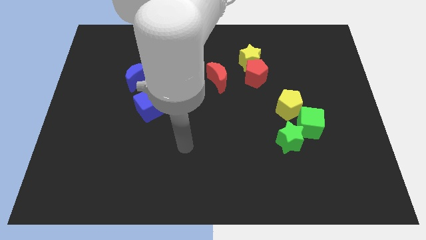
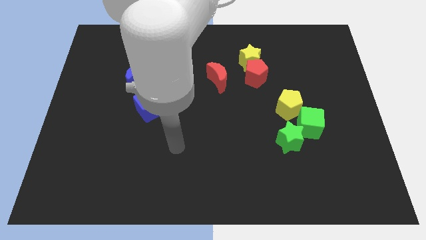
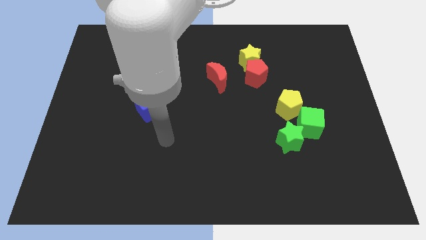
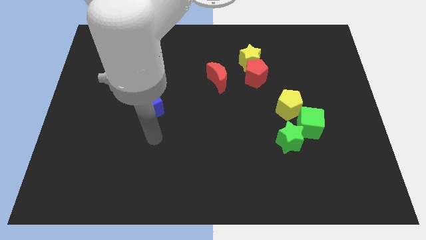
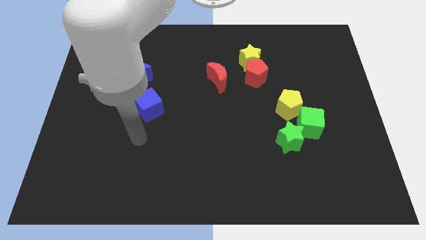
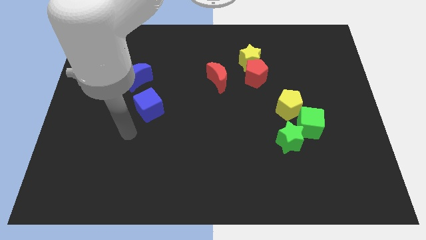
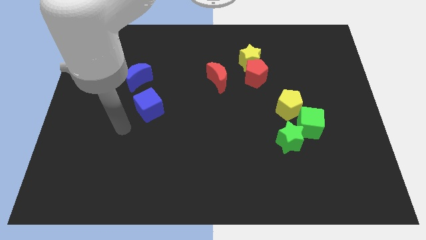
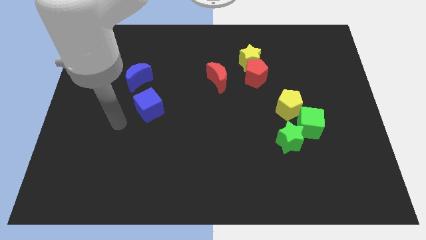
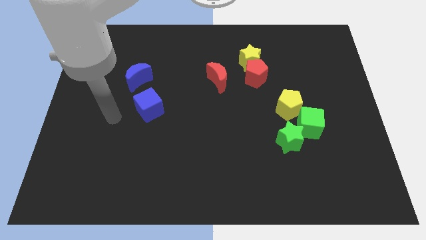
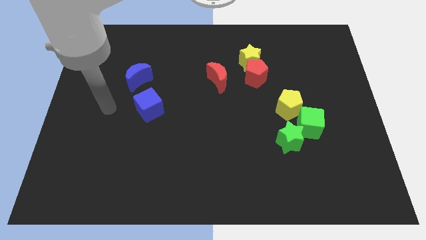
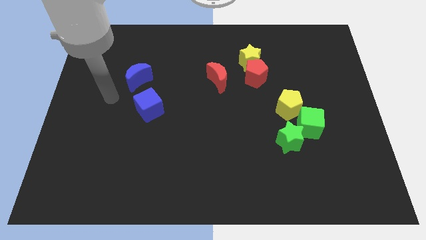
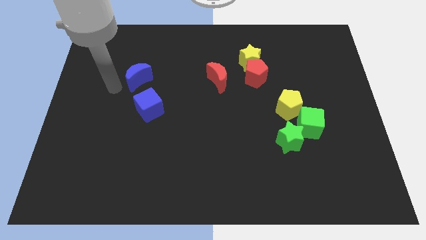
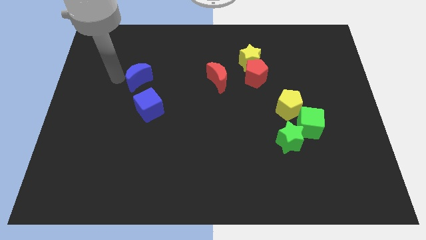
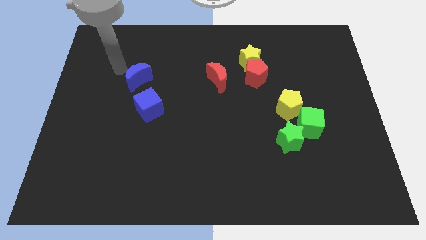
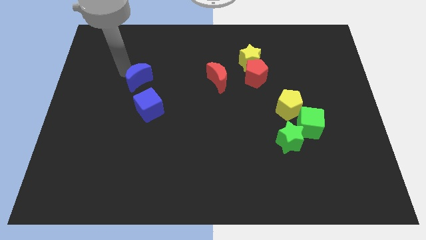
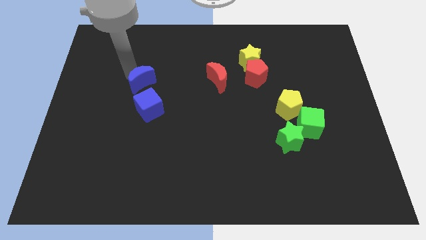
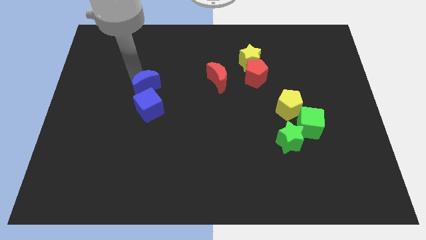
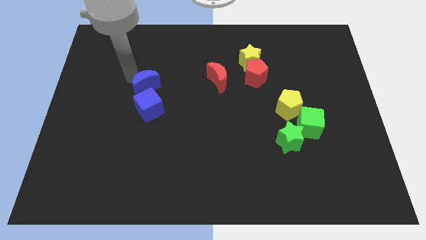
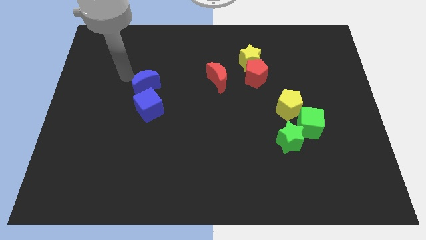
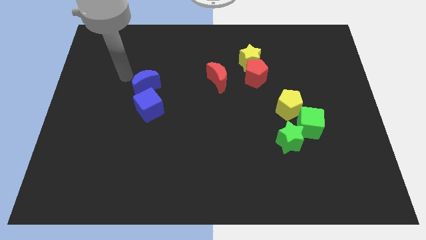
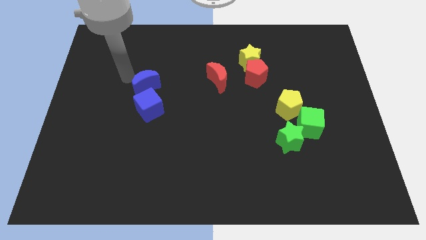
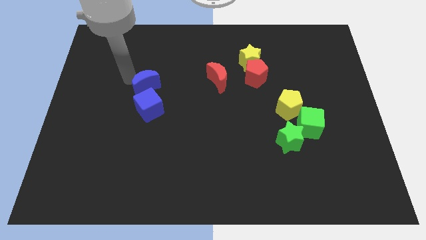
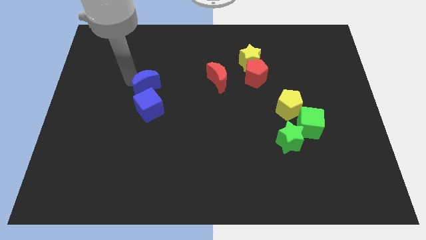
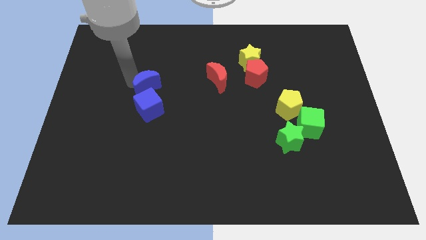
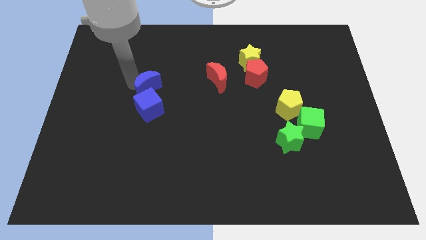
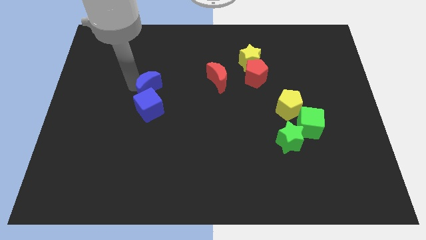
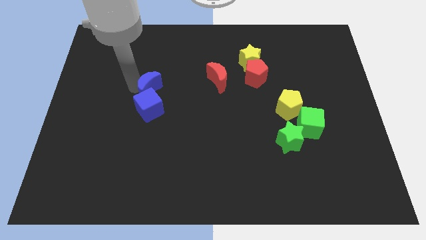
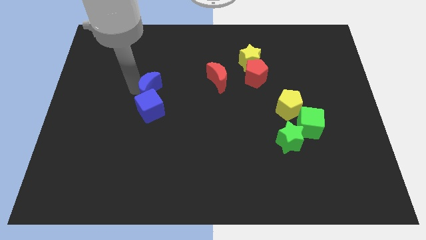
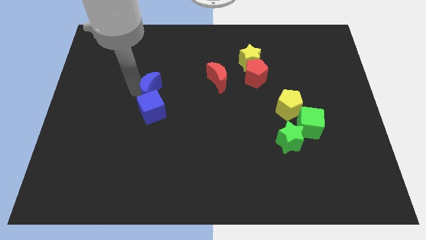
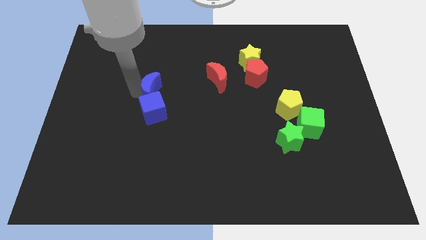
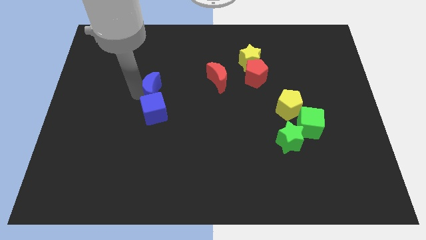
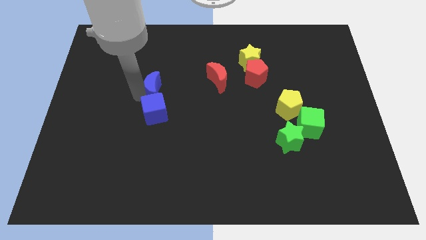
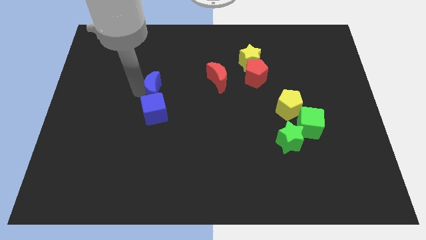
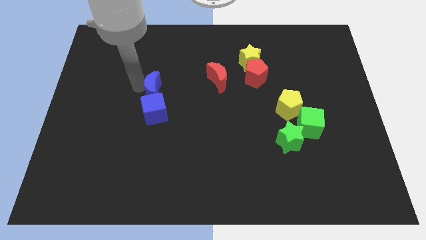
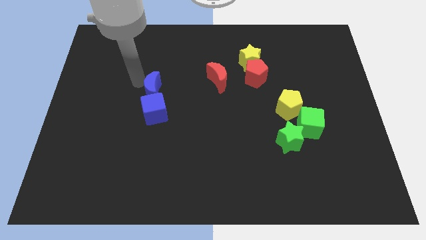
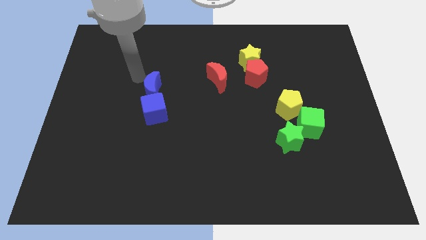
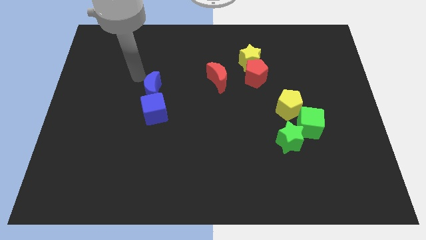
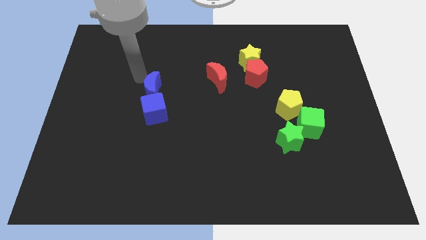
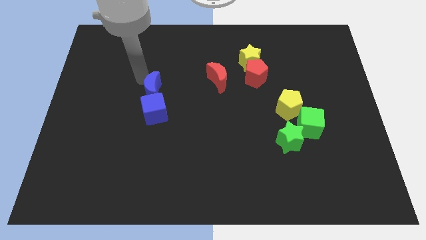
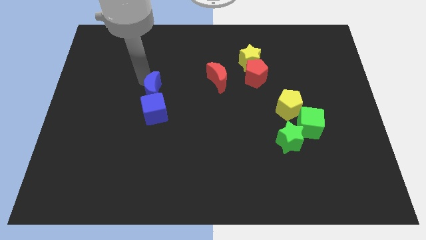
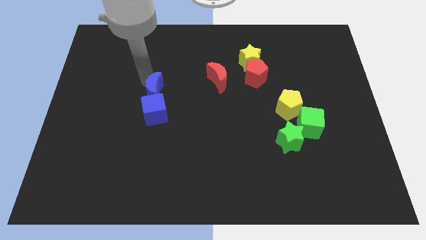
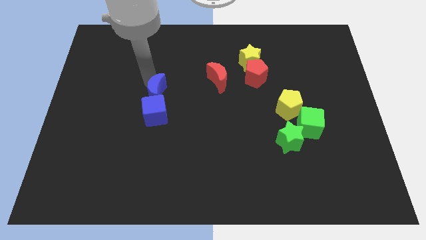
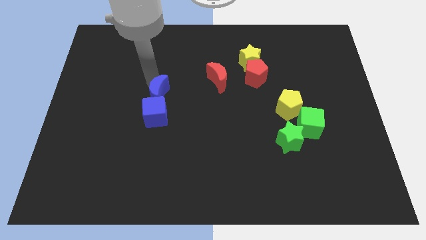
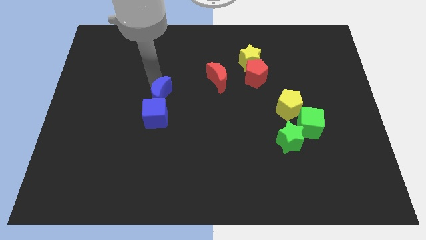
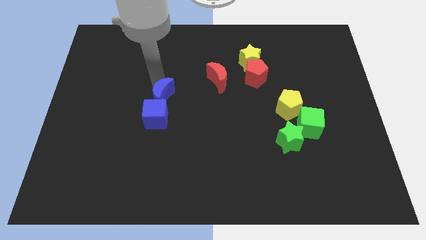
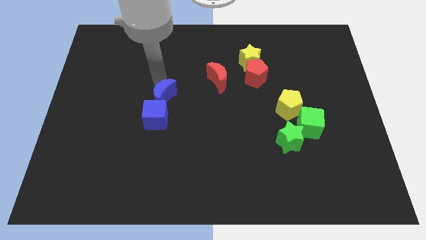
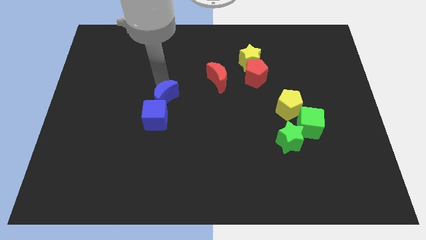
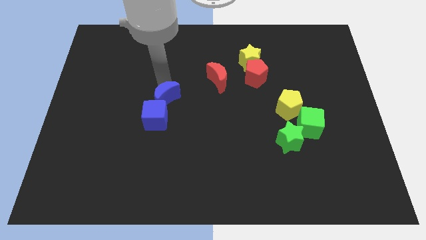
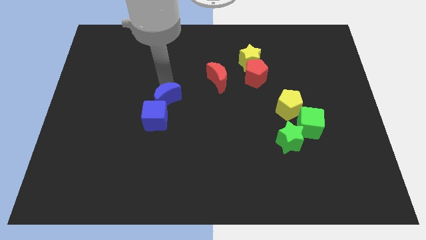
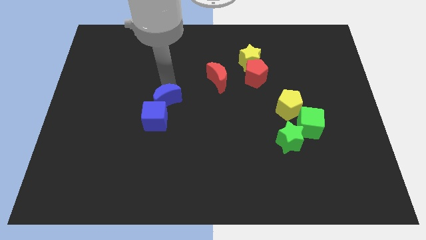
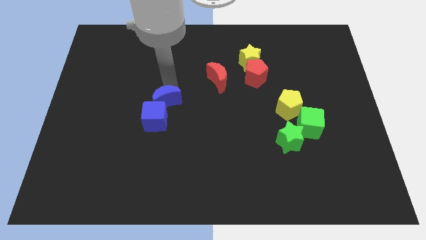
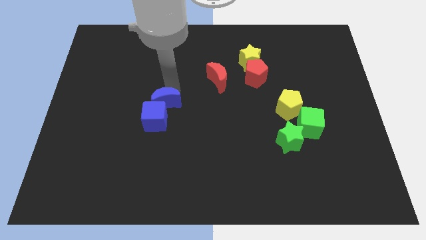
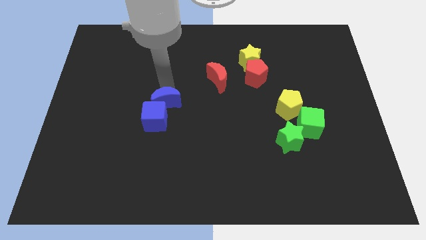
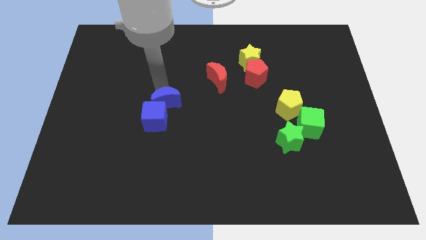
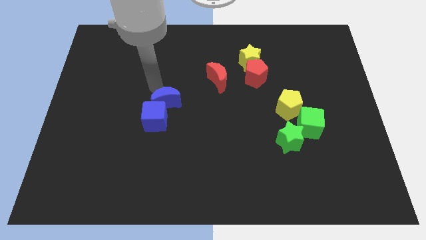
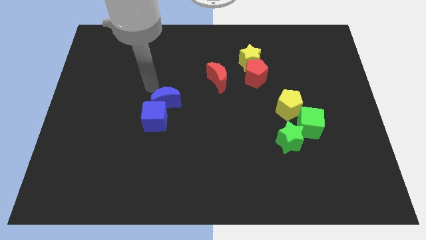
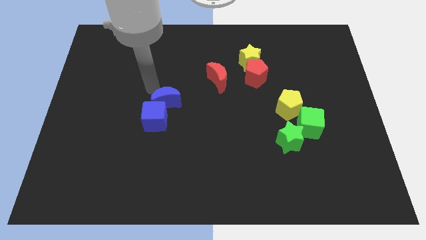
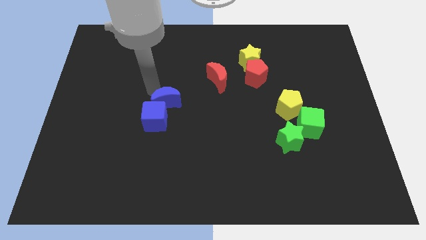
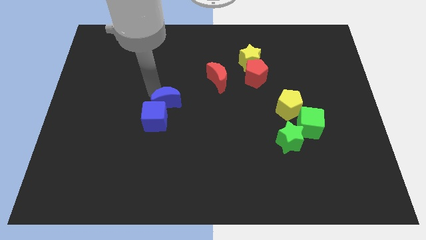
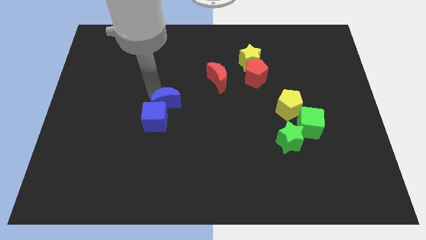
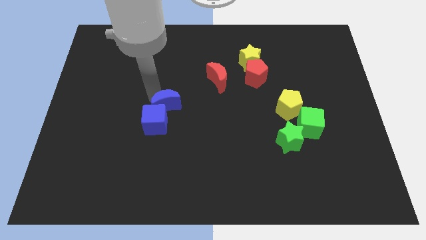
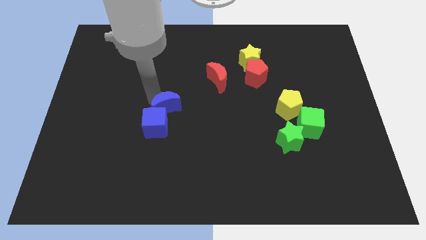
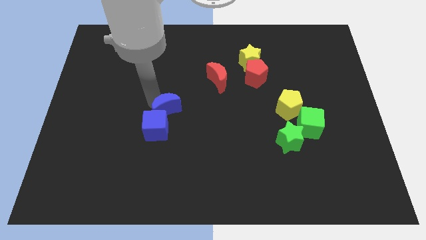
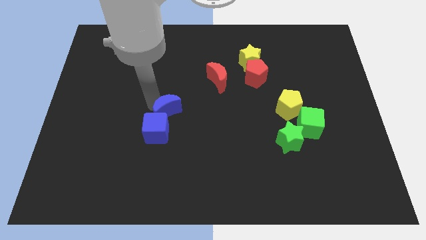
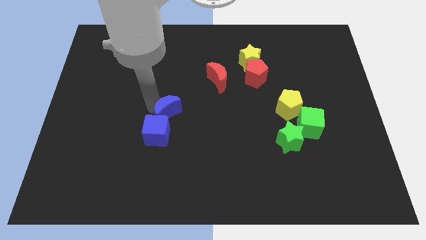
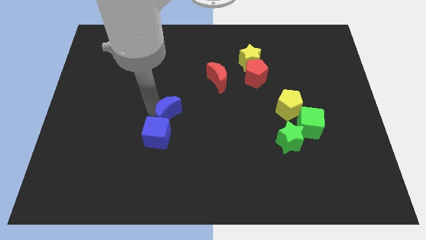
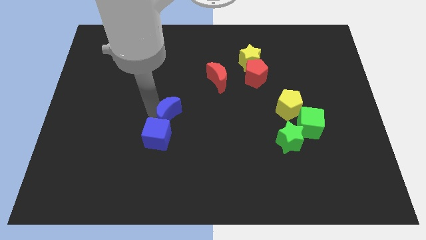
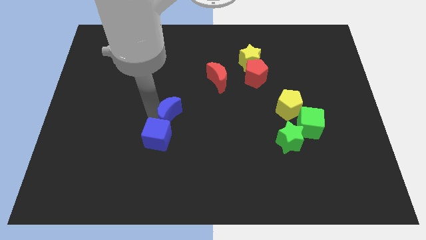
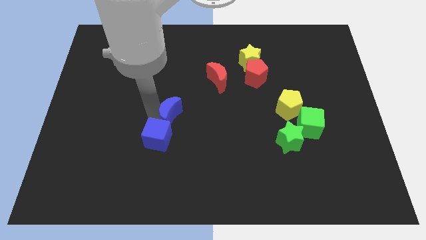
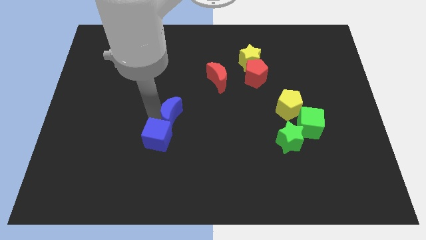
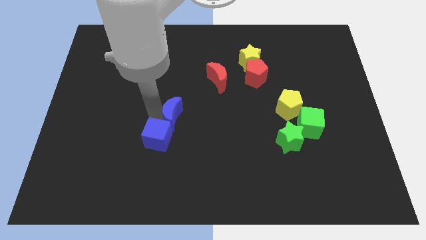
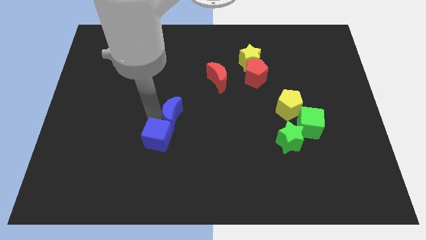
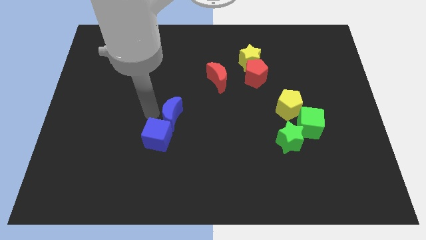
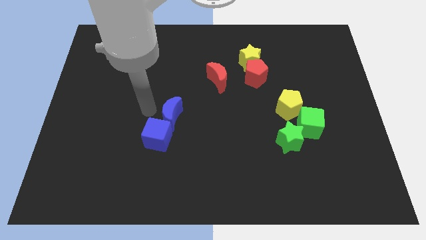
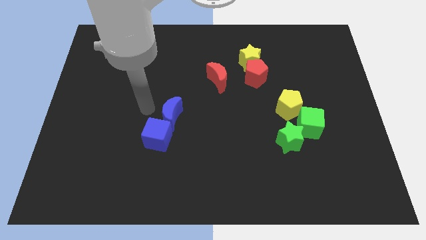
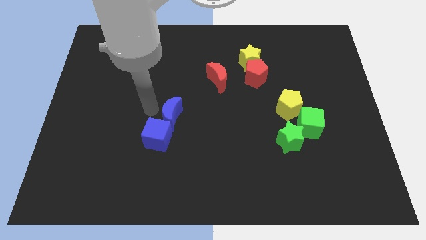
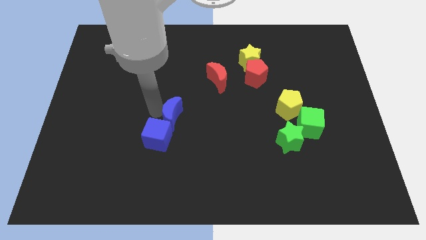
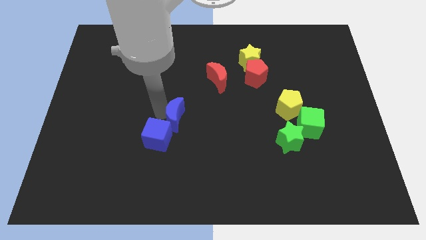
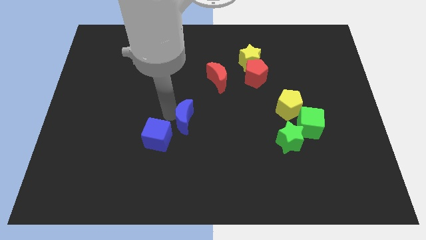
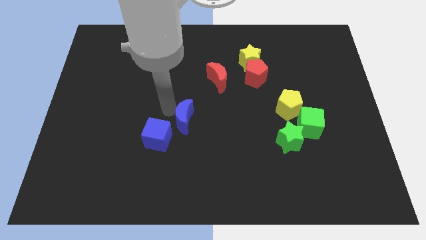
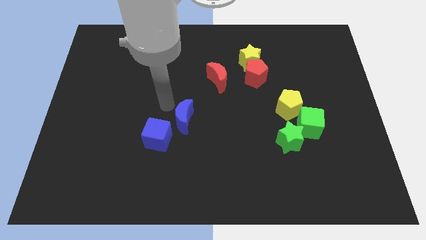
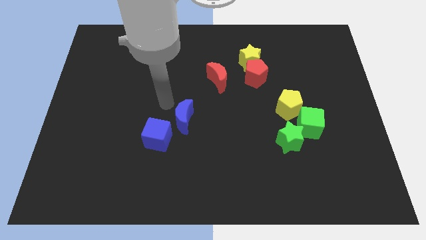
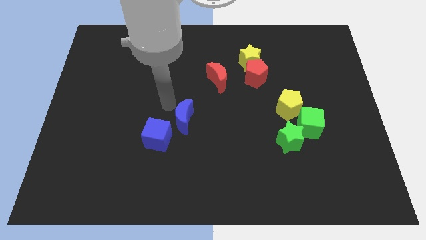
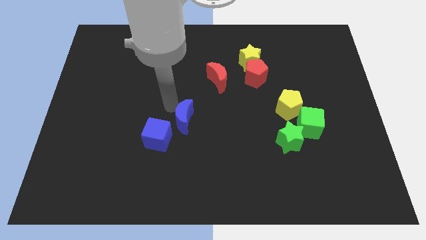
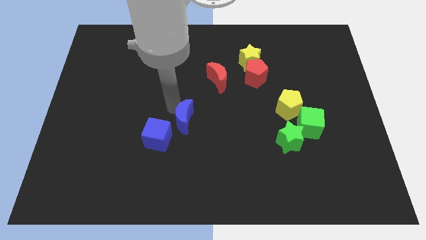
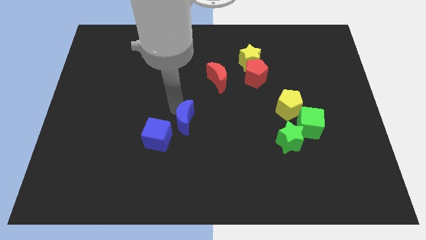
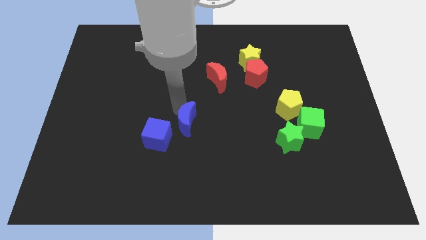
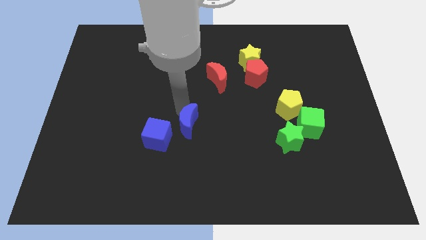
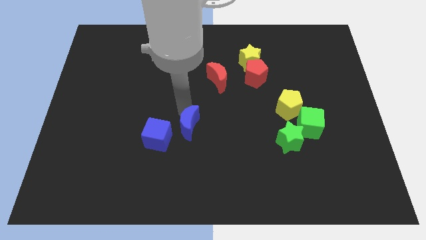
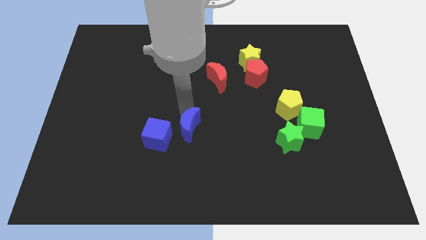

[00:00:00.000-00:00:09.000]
move the blue moon diagonally down and right
